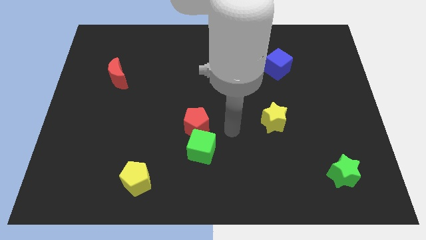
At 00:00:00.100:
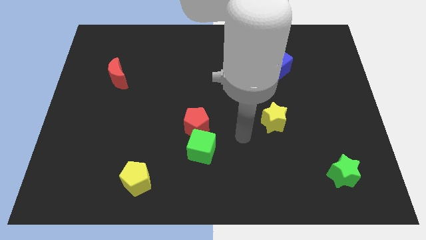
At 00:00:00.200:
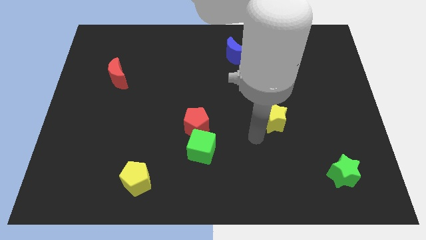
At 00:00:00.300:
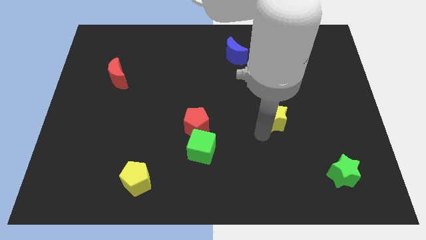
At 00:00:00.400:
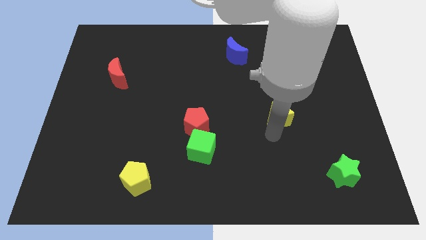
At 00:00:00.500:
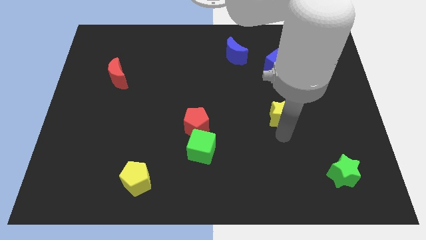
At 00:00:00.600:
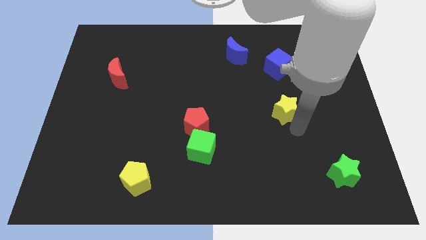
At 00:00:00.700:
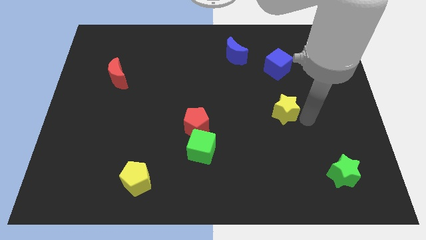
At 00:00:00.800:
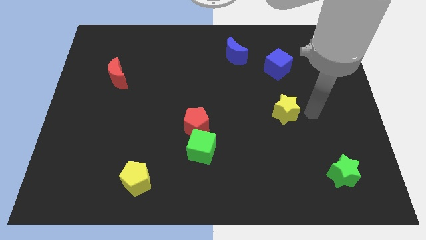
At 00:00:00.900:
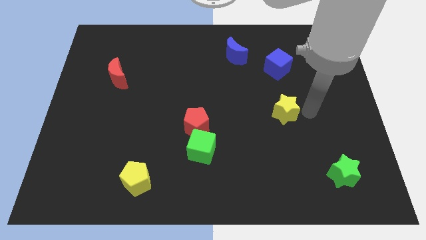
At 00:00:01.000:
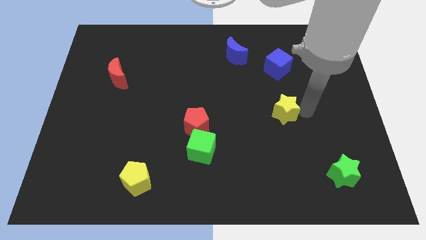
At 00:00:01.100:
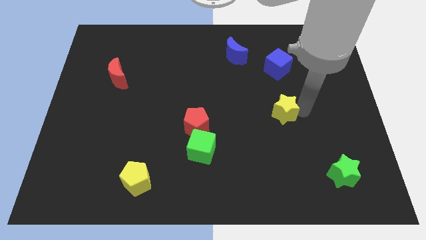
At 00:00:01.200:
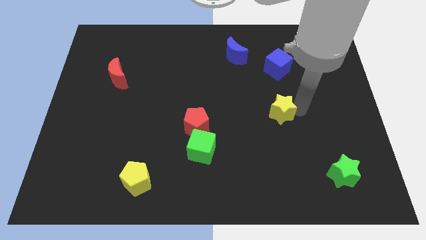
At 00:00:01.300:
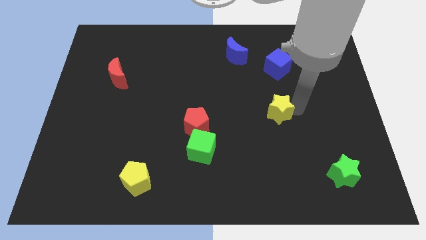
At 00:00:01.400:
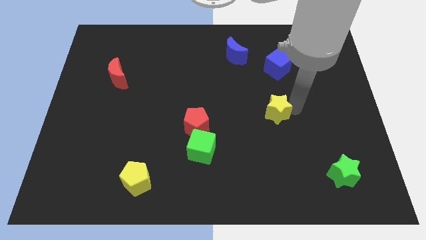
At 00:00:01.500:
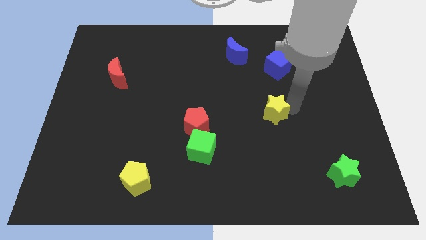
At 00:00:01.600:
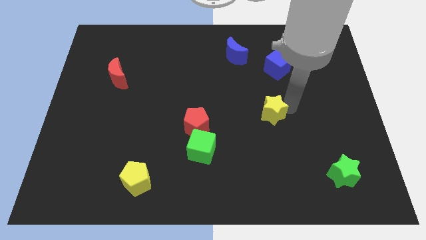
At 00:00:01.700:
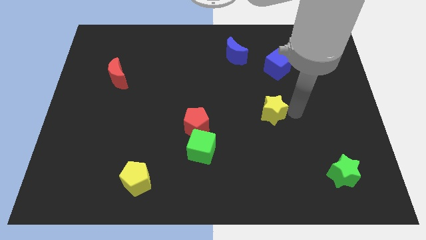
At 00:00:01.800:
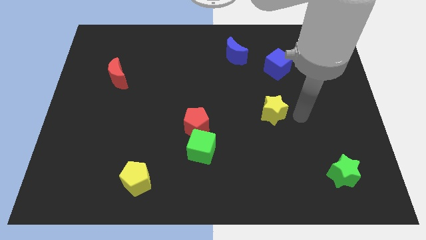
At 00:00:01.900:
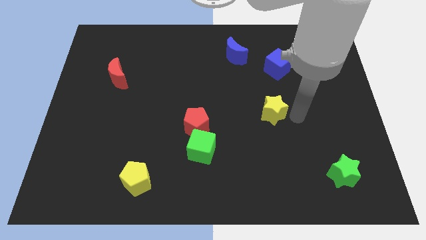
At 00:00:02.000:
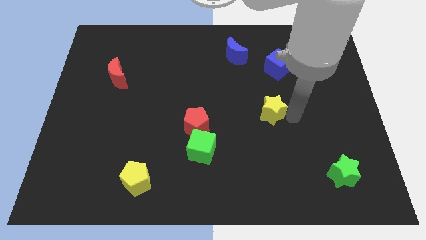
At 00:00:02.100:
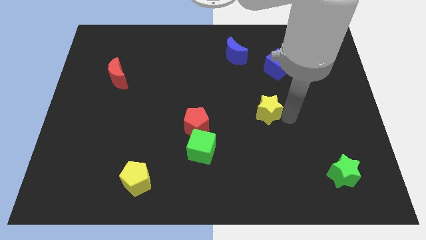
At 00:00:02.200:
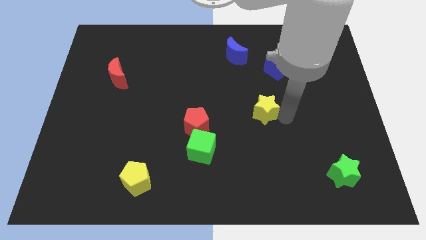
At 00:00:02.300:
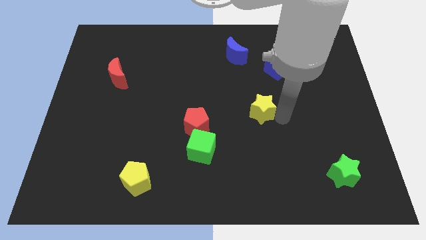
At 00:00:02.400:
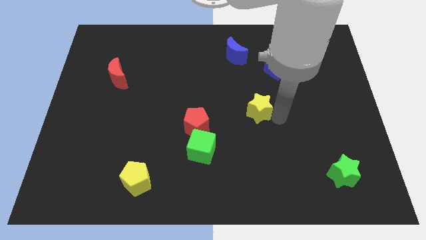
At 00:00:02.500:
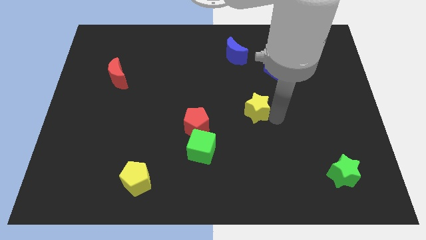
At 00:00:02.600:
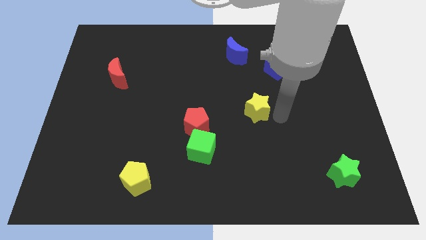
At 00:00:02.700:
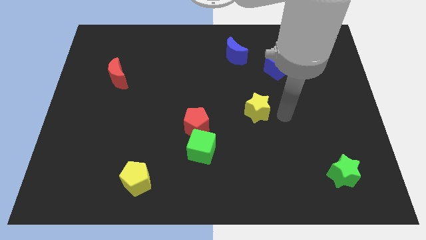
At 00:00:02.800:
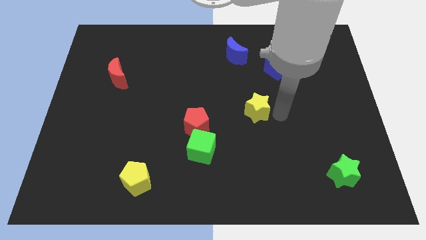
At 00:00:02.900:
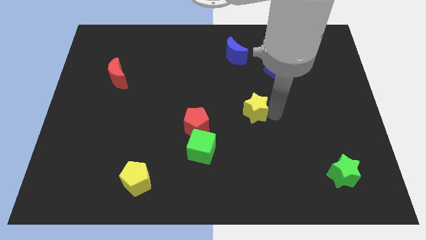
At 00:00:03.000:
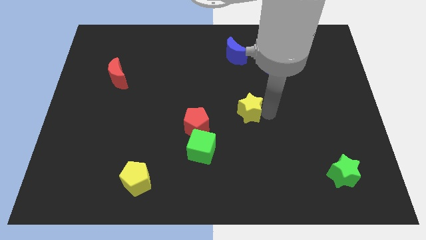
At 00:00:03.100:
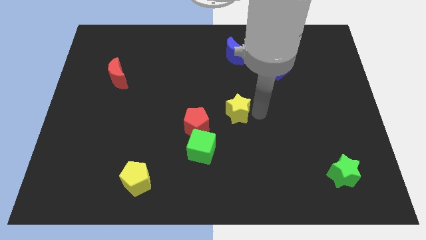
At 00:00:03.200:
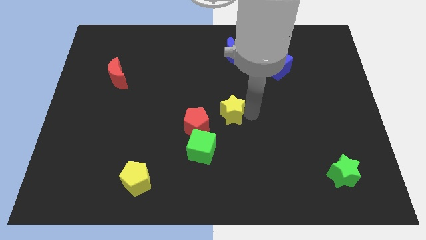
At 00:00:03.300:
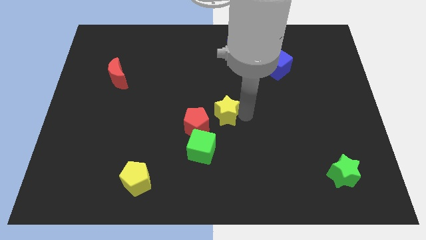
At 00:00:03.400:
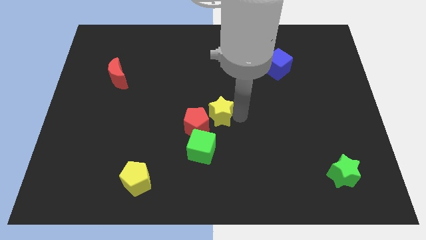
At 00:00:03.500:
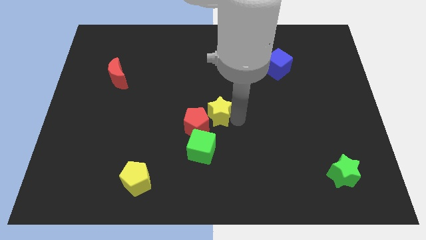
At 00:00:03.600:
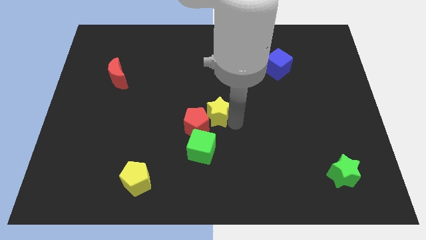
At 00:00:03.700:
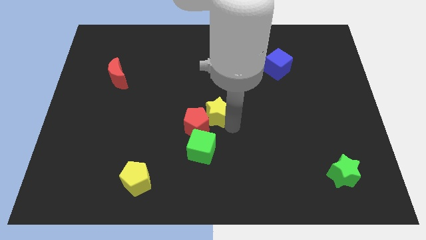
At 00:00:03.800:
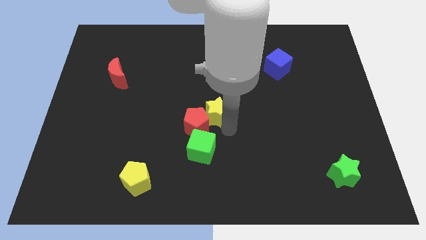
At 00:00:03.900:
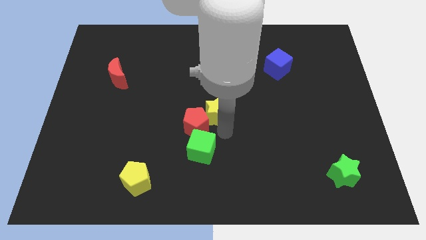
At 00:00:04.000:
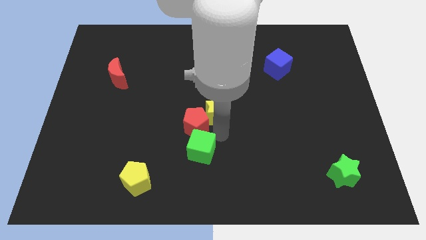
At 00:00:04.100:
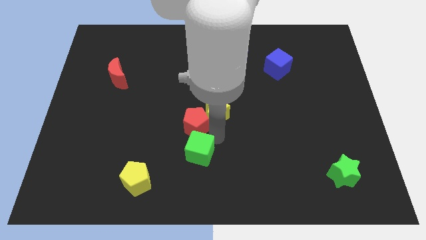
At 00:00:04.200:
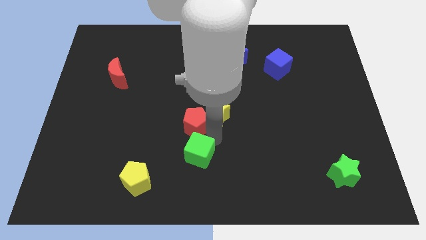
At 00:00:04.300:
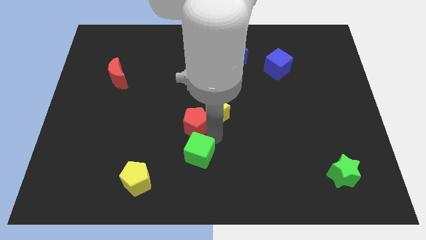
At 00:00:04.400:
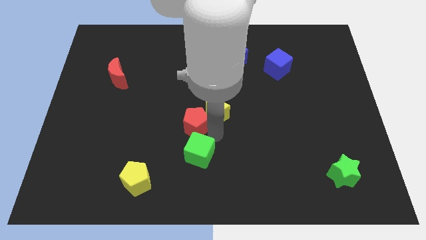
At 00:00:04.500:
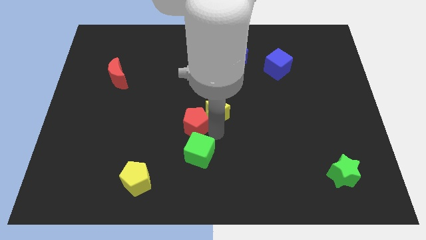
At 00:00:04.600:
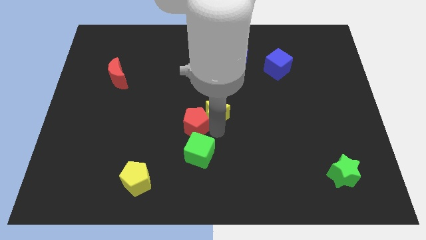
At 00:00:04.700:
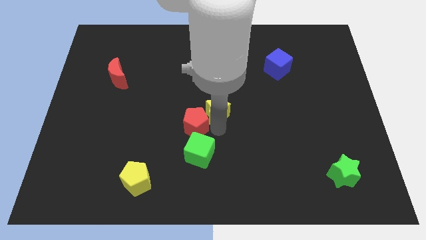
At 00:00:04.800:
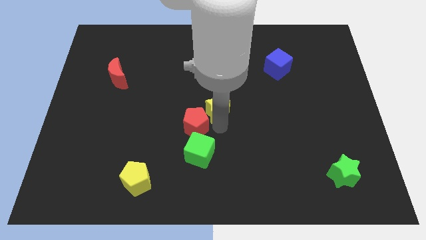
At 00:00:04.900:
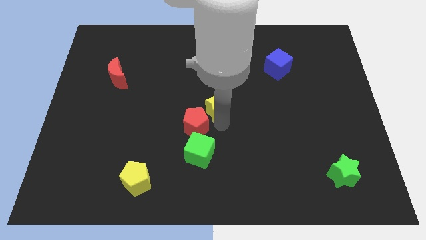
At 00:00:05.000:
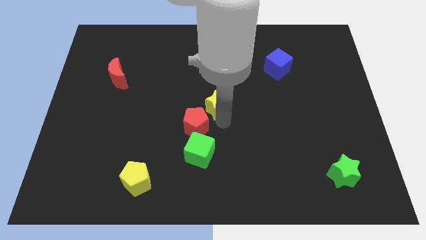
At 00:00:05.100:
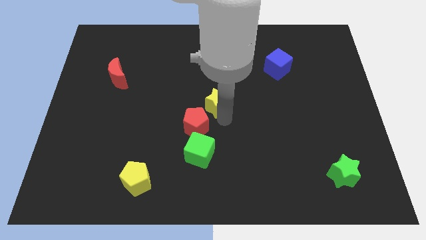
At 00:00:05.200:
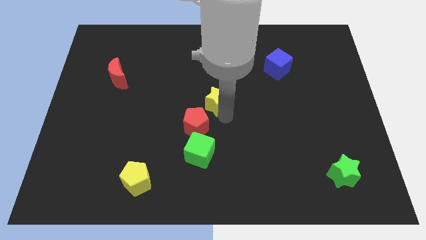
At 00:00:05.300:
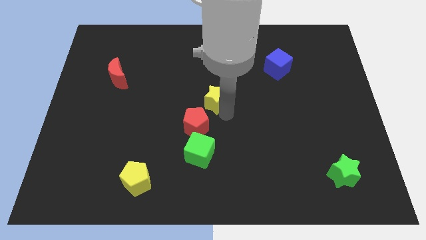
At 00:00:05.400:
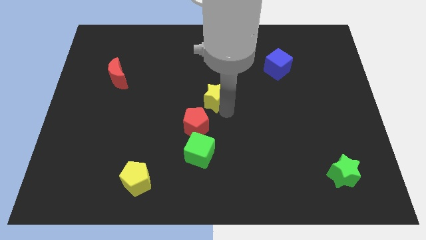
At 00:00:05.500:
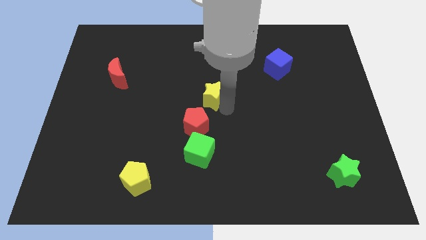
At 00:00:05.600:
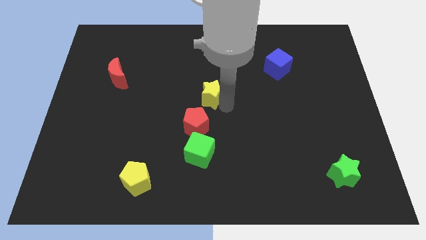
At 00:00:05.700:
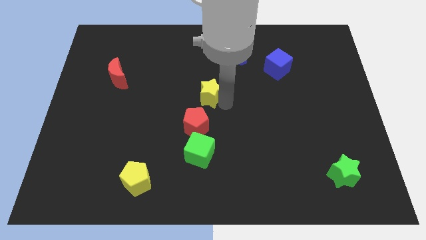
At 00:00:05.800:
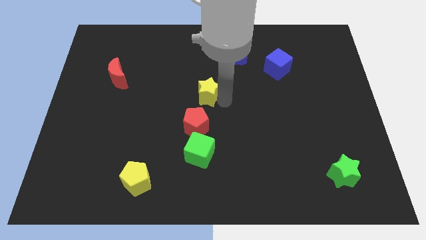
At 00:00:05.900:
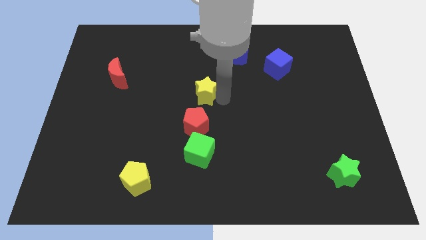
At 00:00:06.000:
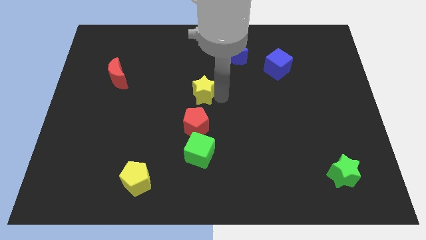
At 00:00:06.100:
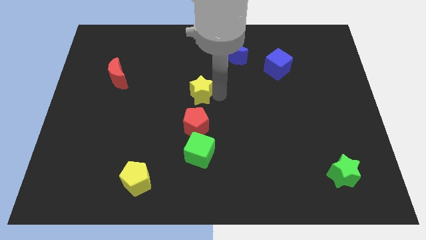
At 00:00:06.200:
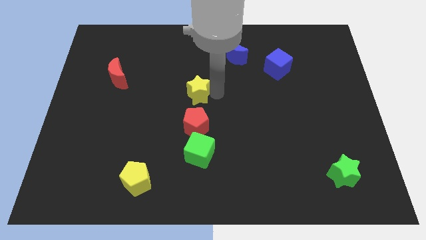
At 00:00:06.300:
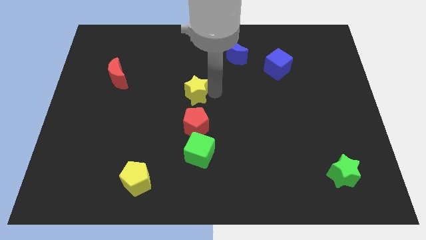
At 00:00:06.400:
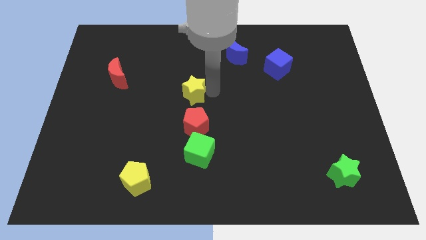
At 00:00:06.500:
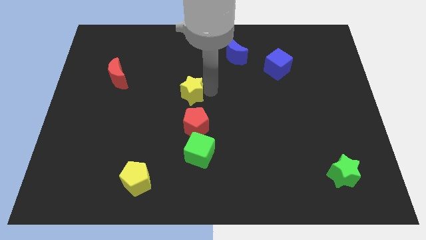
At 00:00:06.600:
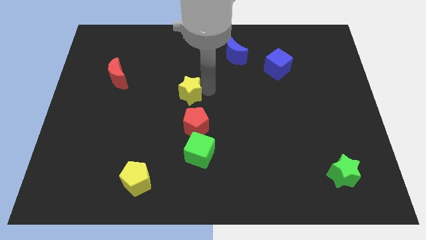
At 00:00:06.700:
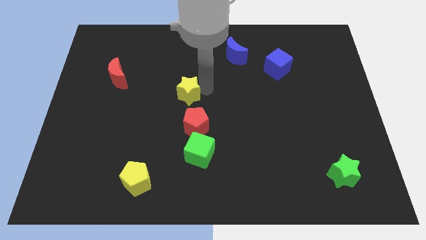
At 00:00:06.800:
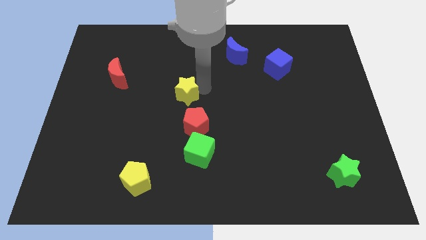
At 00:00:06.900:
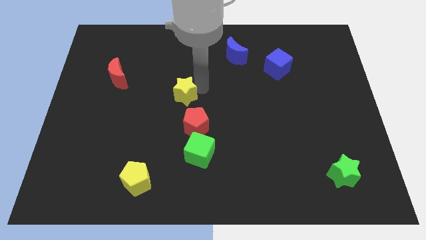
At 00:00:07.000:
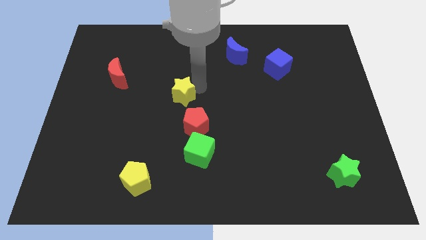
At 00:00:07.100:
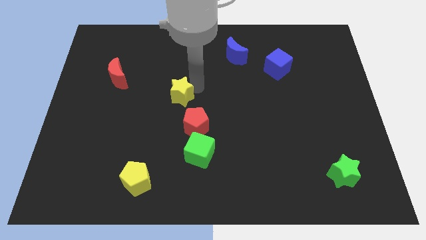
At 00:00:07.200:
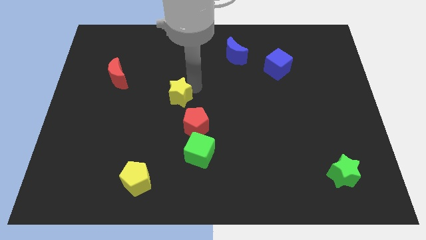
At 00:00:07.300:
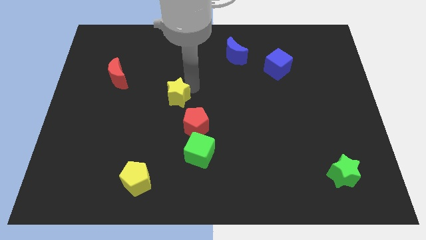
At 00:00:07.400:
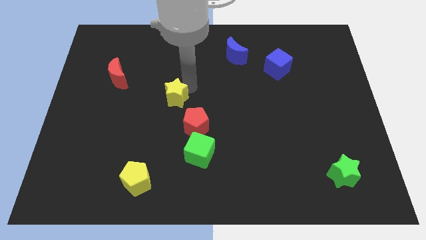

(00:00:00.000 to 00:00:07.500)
move the yellow star left

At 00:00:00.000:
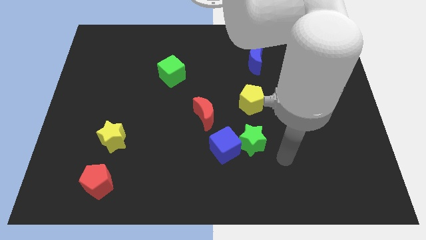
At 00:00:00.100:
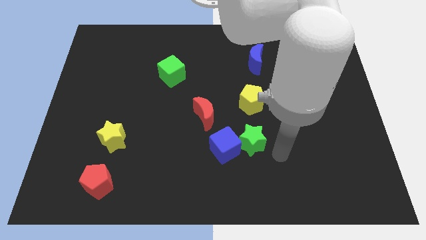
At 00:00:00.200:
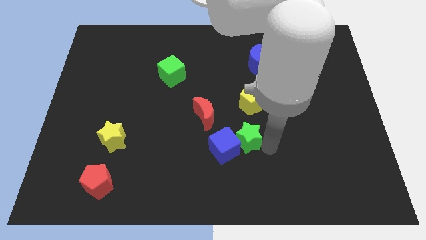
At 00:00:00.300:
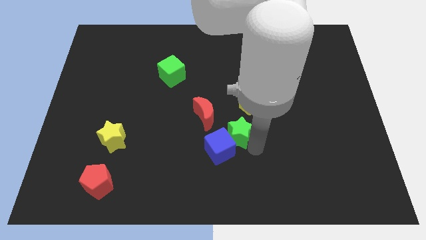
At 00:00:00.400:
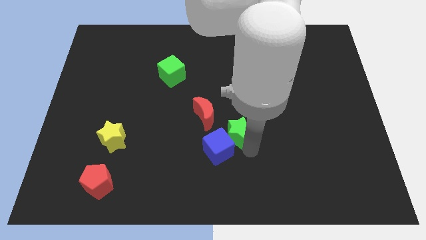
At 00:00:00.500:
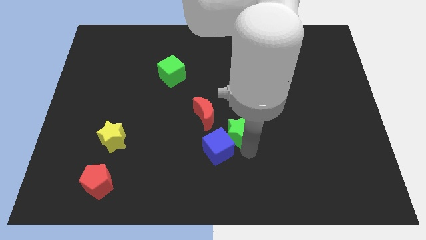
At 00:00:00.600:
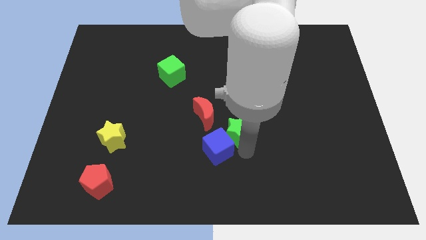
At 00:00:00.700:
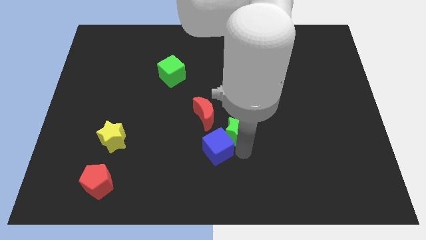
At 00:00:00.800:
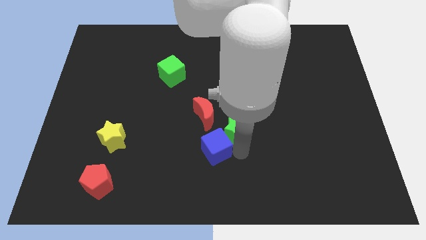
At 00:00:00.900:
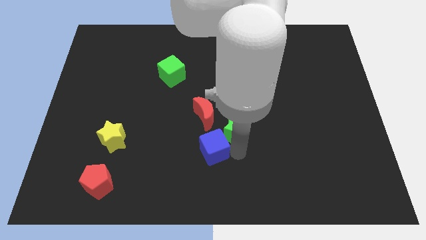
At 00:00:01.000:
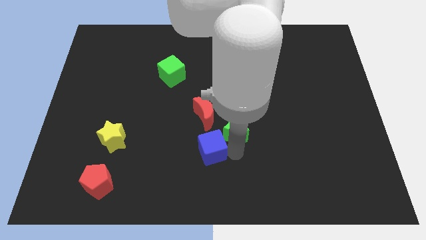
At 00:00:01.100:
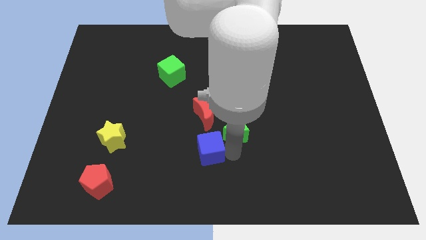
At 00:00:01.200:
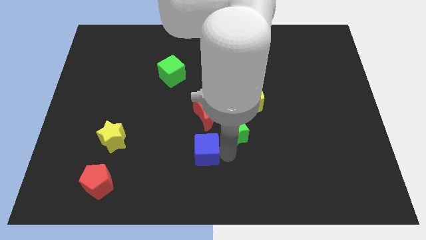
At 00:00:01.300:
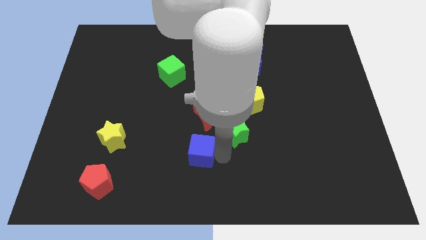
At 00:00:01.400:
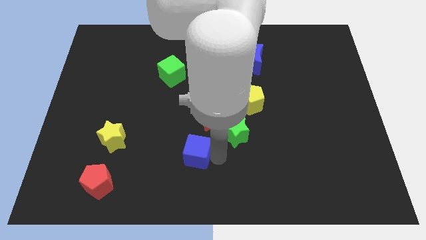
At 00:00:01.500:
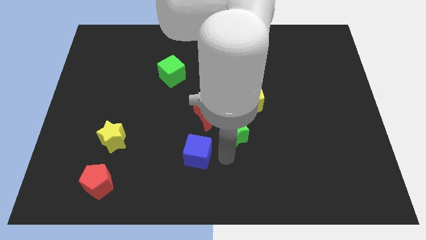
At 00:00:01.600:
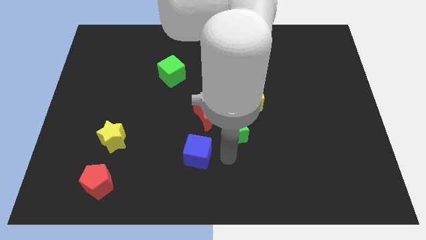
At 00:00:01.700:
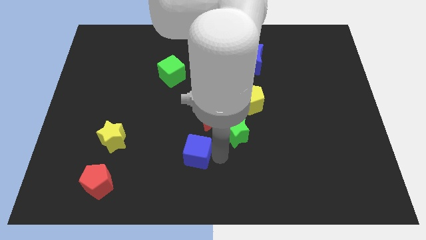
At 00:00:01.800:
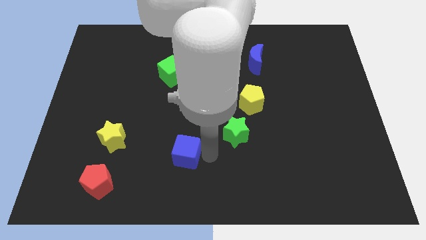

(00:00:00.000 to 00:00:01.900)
slide the blue cube to the left somewhat
